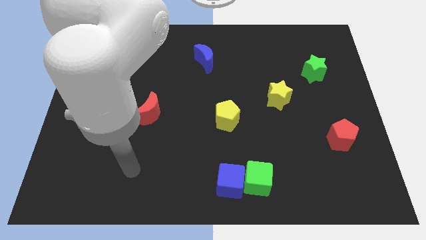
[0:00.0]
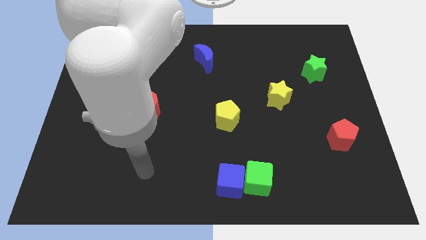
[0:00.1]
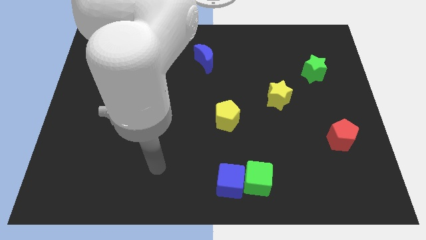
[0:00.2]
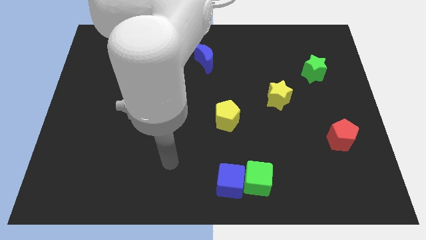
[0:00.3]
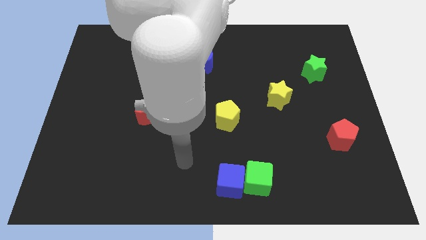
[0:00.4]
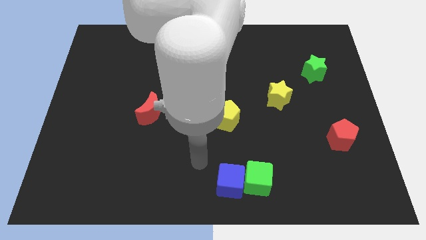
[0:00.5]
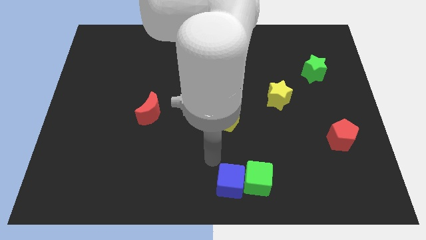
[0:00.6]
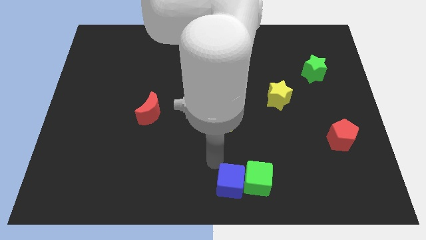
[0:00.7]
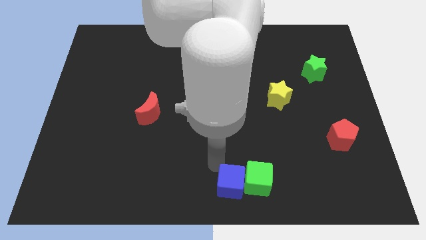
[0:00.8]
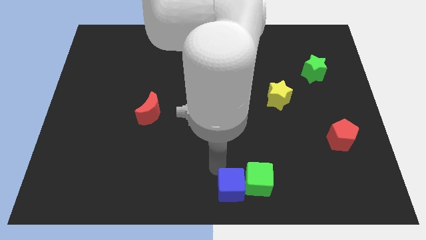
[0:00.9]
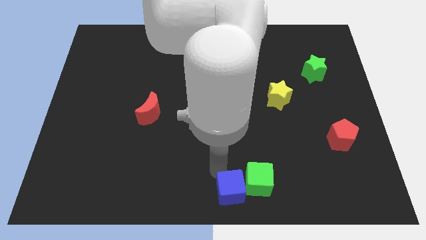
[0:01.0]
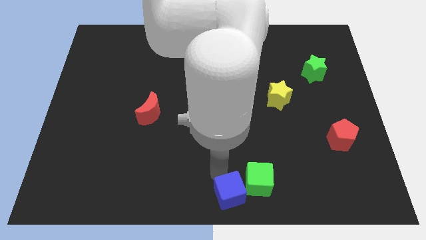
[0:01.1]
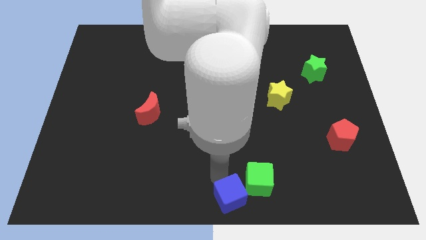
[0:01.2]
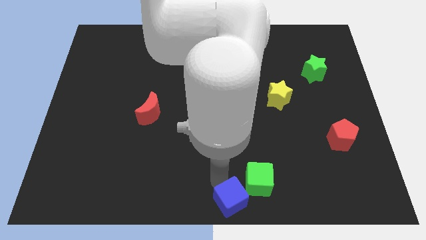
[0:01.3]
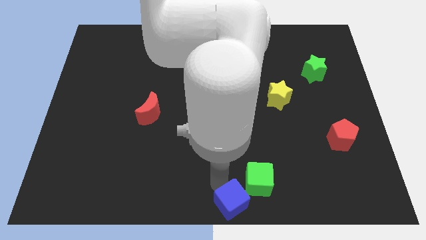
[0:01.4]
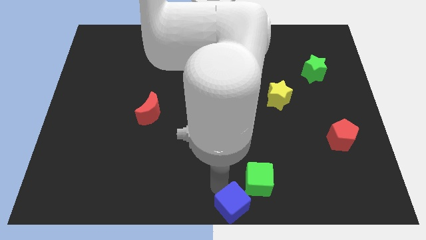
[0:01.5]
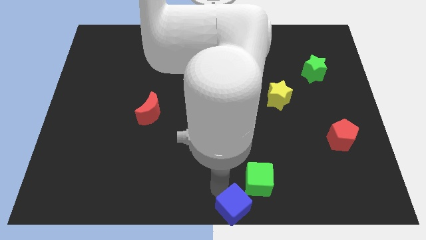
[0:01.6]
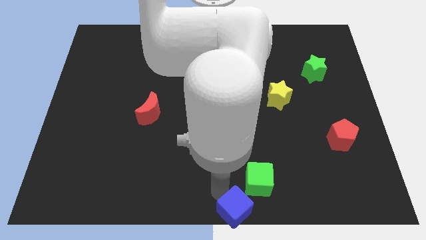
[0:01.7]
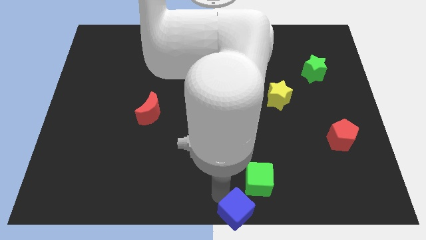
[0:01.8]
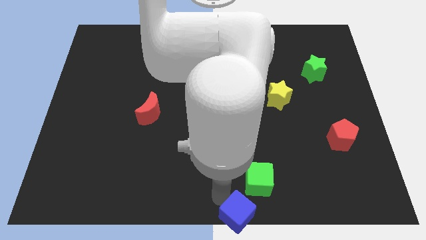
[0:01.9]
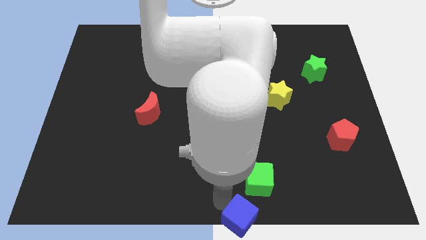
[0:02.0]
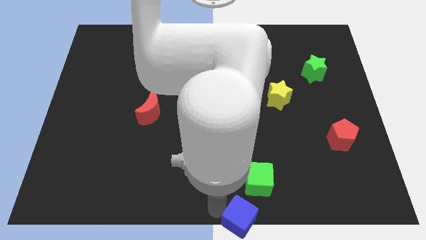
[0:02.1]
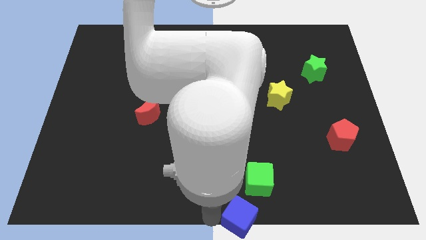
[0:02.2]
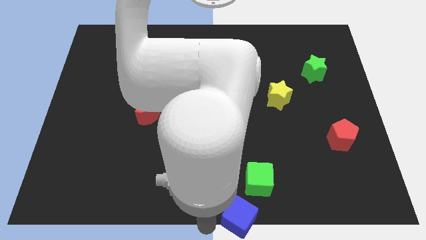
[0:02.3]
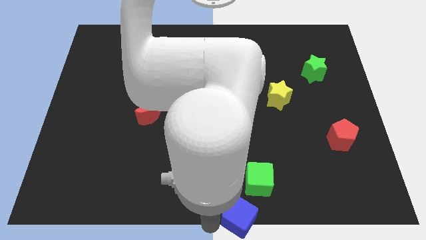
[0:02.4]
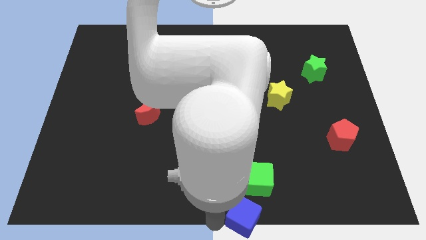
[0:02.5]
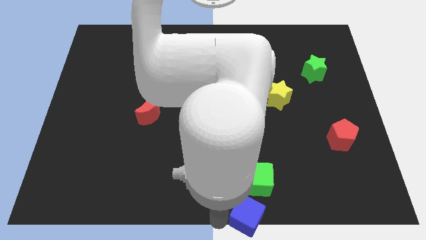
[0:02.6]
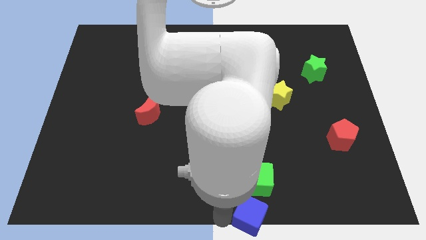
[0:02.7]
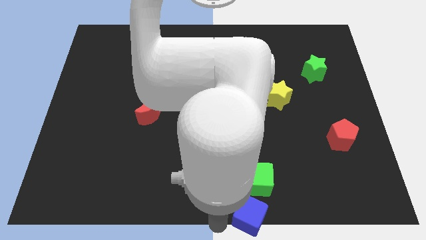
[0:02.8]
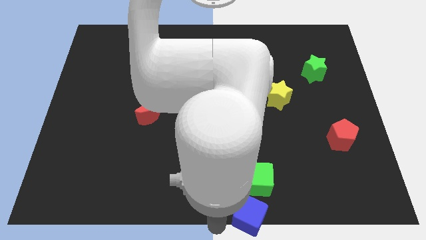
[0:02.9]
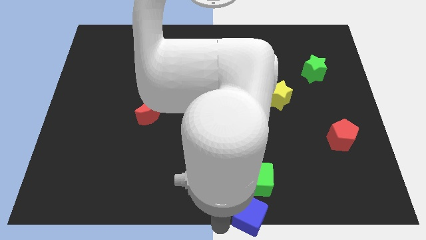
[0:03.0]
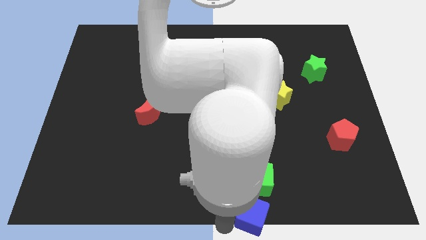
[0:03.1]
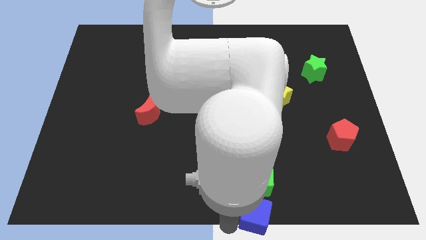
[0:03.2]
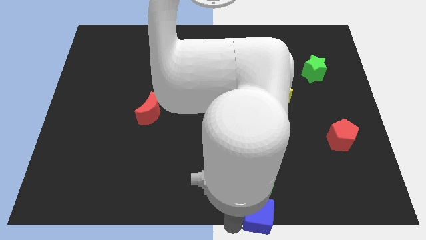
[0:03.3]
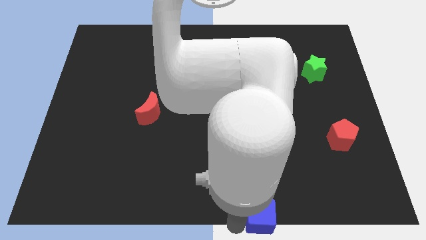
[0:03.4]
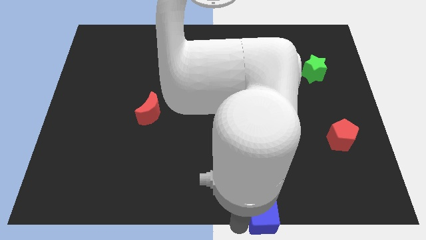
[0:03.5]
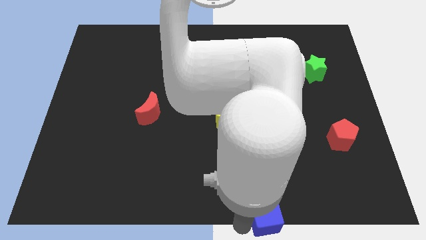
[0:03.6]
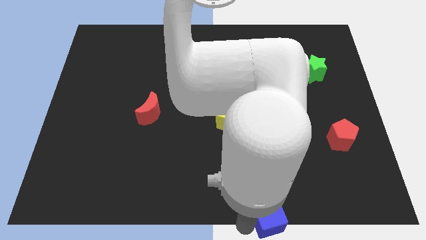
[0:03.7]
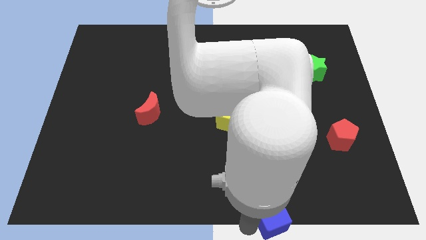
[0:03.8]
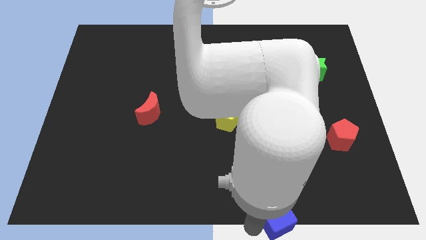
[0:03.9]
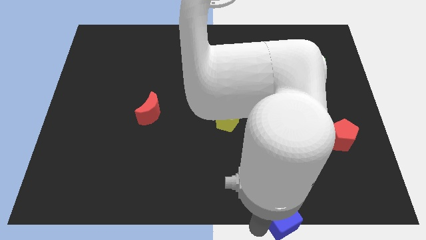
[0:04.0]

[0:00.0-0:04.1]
slide the blue cube to the right a little bit

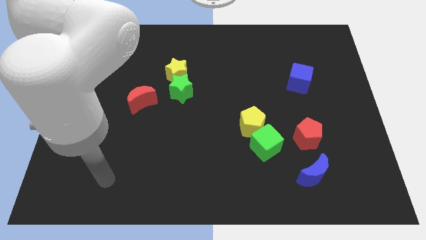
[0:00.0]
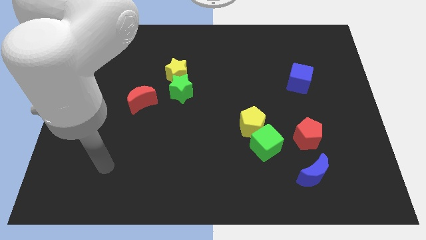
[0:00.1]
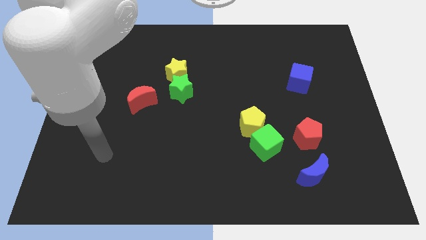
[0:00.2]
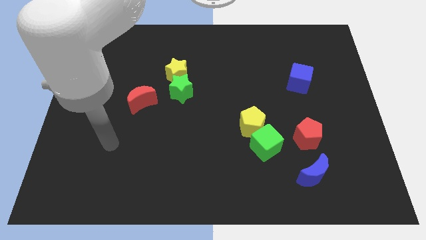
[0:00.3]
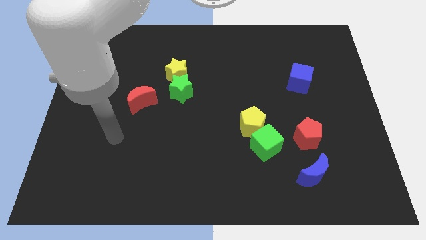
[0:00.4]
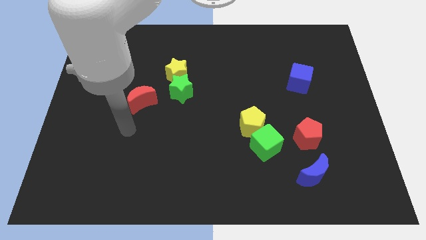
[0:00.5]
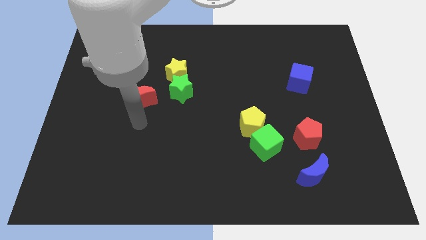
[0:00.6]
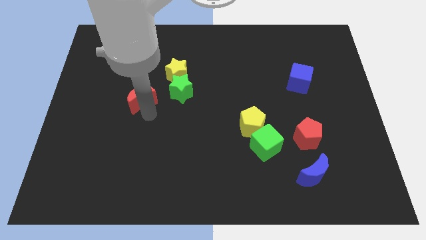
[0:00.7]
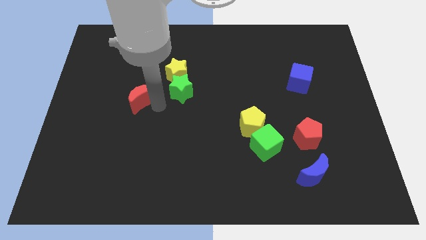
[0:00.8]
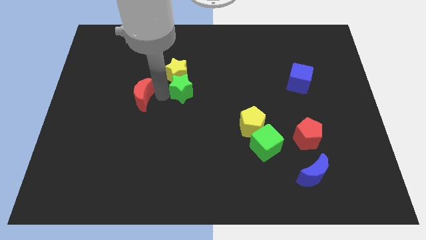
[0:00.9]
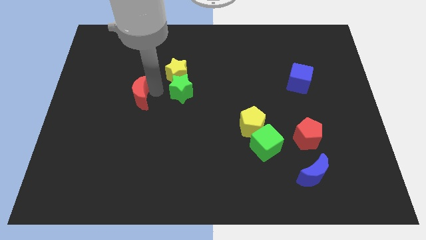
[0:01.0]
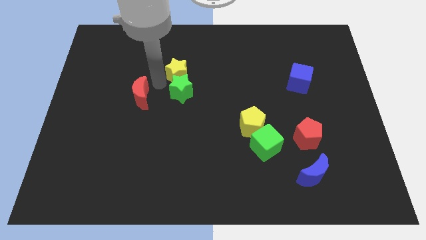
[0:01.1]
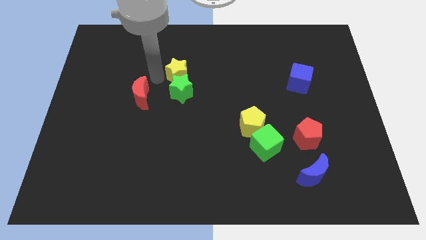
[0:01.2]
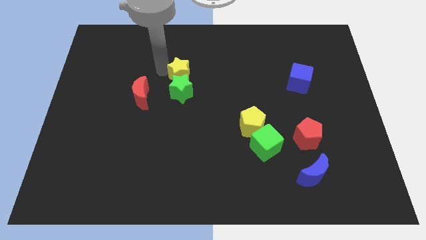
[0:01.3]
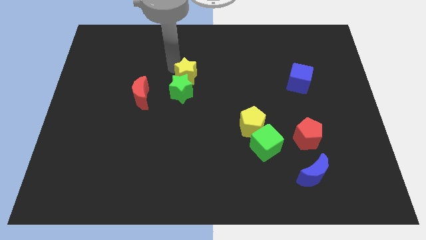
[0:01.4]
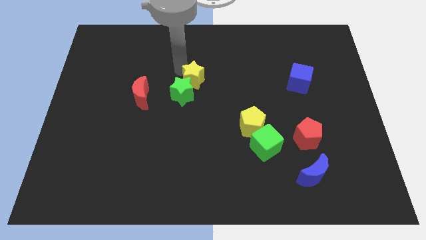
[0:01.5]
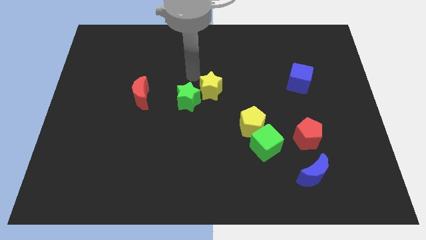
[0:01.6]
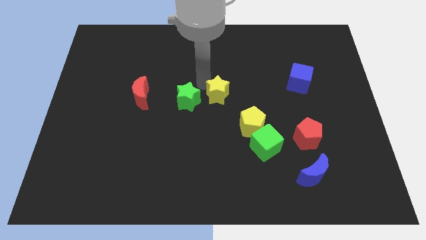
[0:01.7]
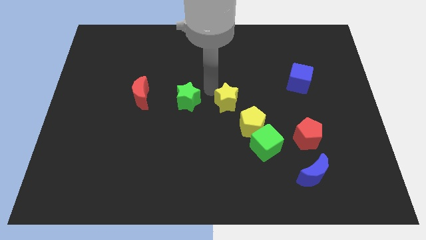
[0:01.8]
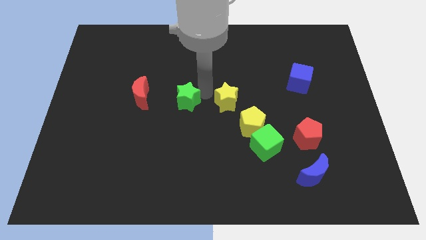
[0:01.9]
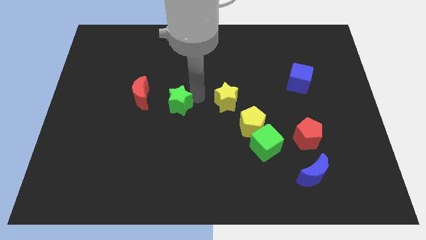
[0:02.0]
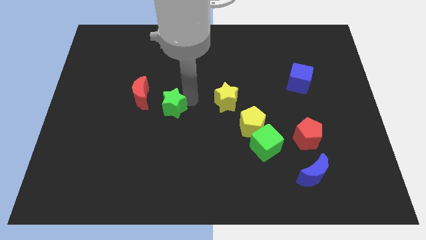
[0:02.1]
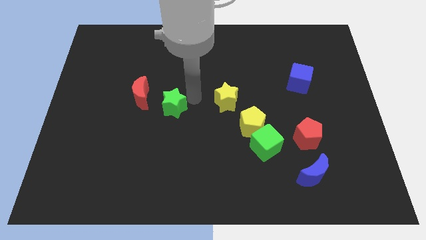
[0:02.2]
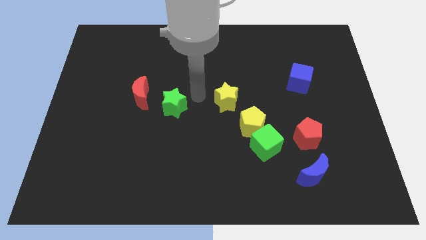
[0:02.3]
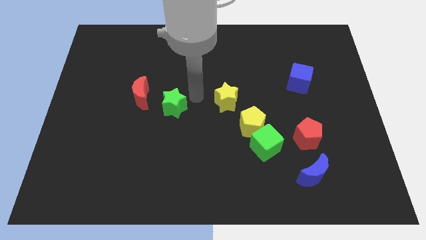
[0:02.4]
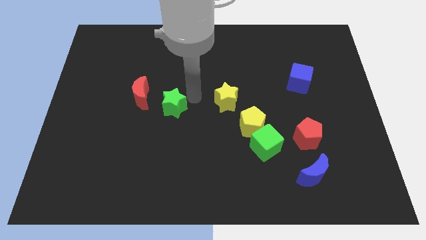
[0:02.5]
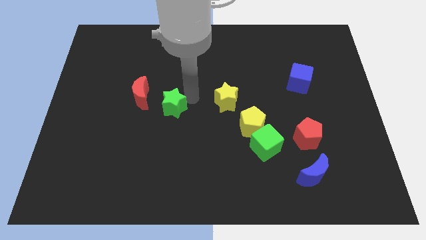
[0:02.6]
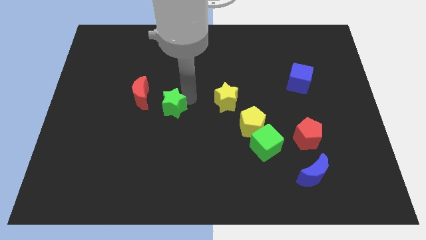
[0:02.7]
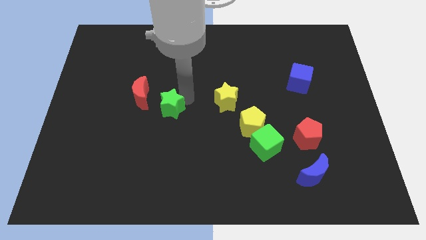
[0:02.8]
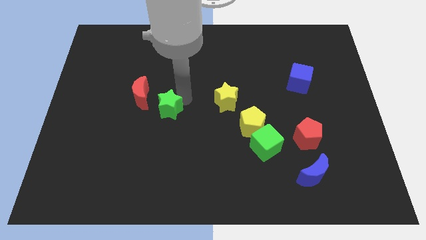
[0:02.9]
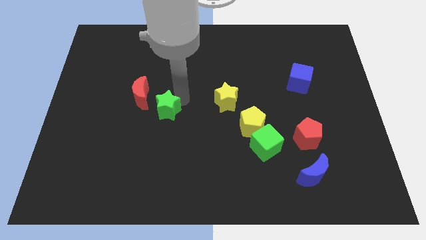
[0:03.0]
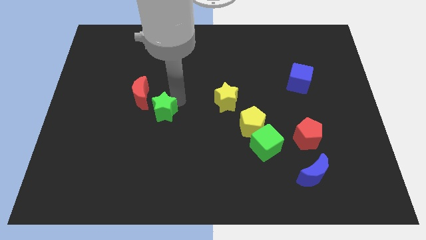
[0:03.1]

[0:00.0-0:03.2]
move the green star a little bit downwards and to the left

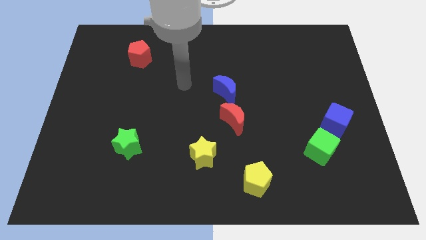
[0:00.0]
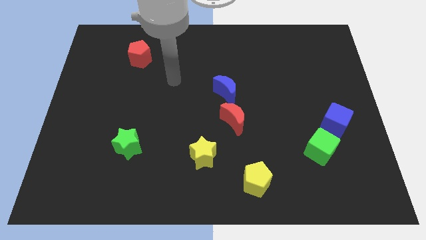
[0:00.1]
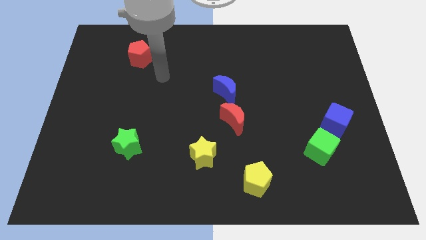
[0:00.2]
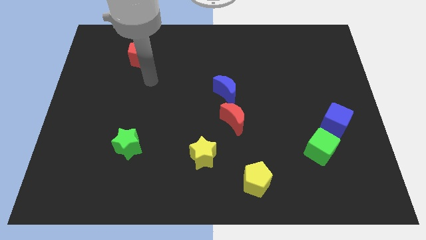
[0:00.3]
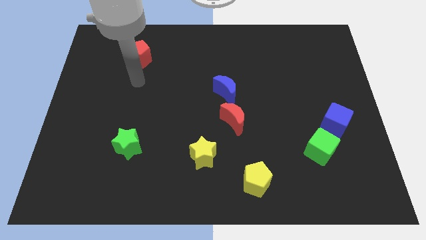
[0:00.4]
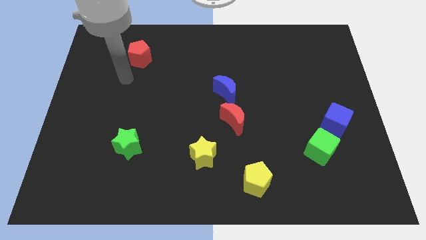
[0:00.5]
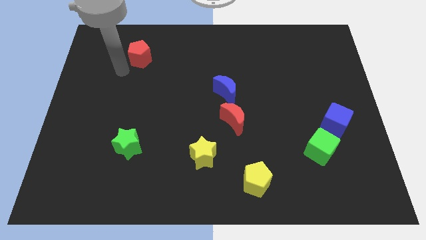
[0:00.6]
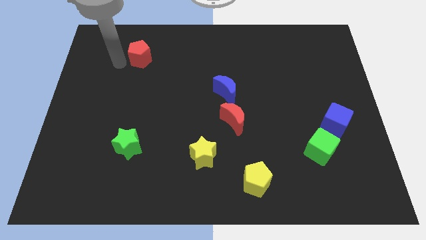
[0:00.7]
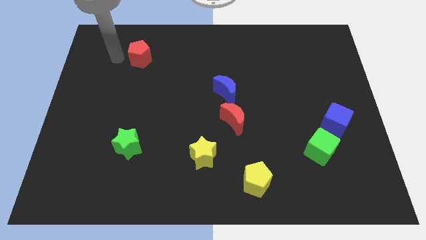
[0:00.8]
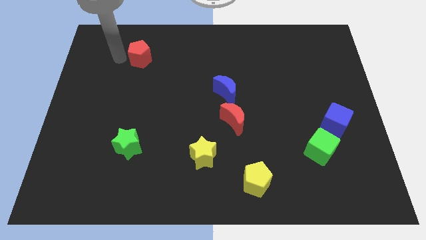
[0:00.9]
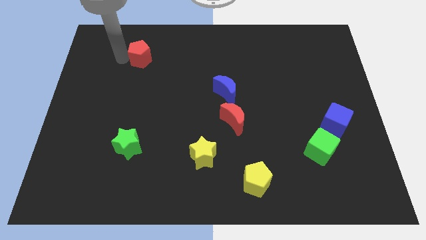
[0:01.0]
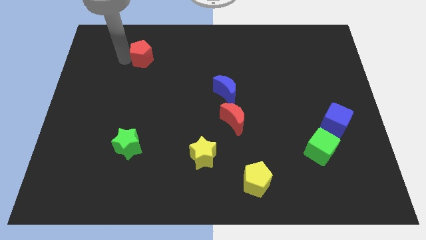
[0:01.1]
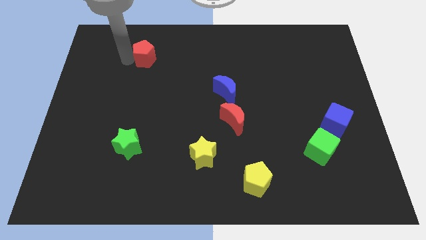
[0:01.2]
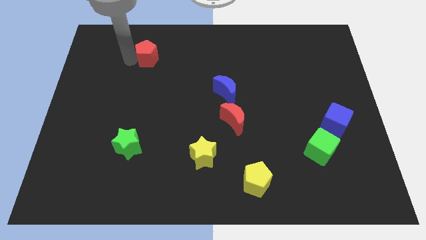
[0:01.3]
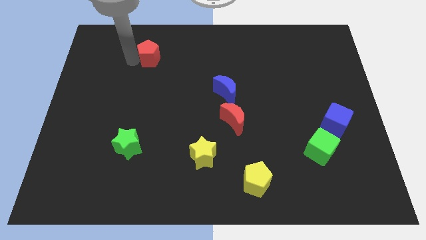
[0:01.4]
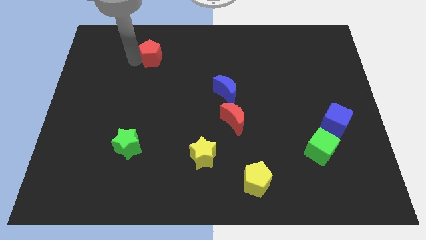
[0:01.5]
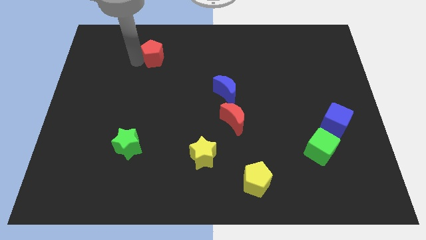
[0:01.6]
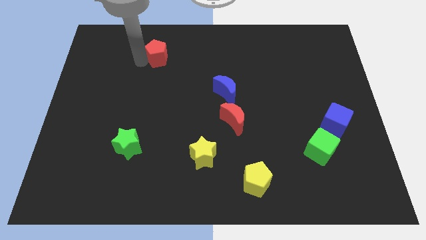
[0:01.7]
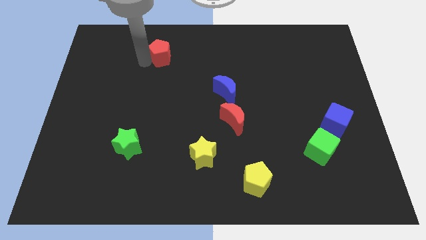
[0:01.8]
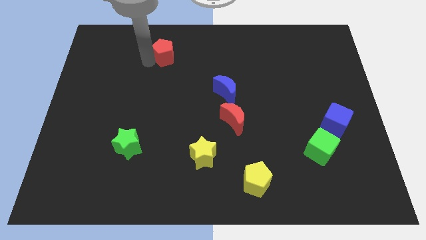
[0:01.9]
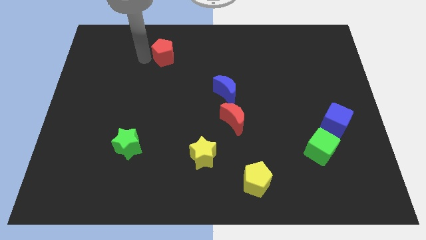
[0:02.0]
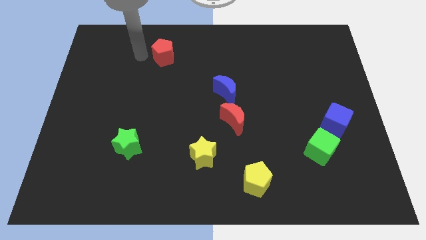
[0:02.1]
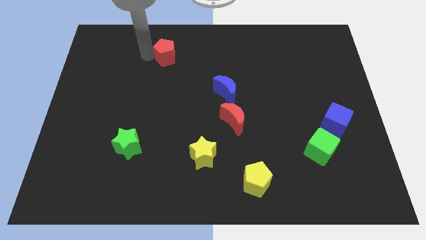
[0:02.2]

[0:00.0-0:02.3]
move the red pentagon to the right a little
